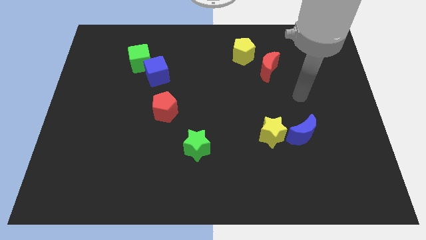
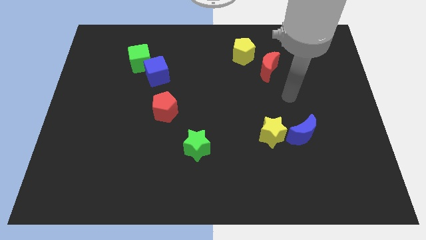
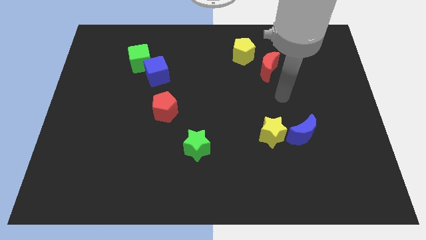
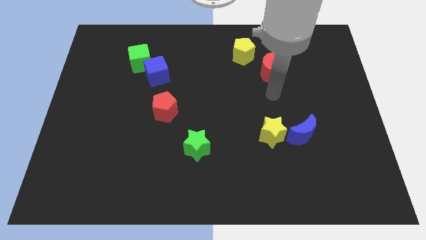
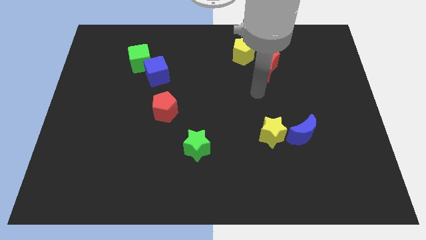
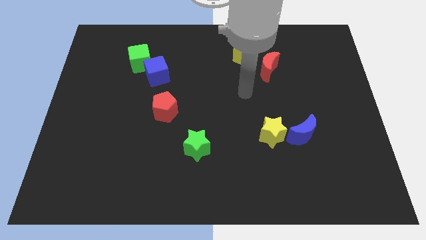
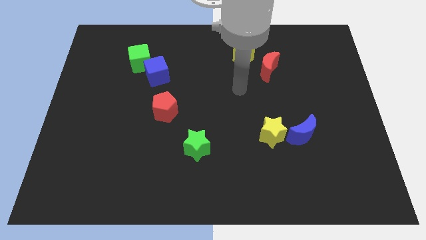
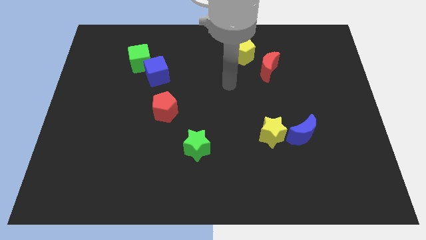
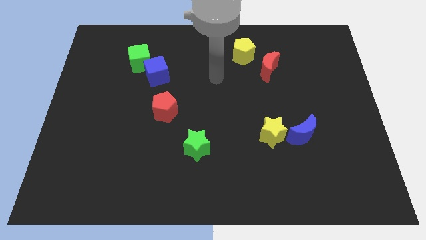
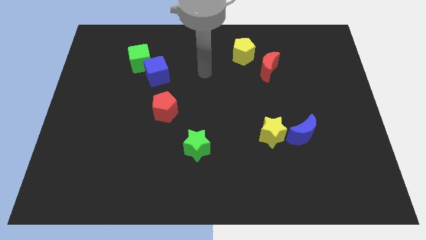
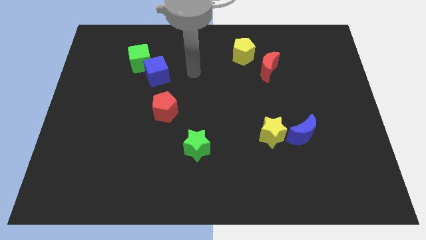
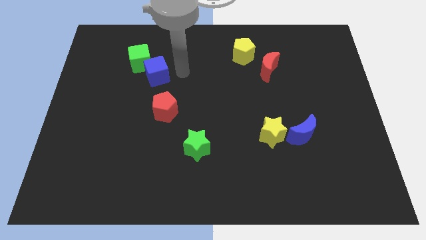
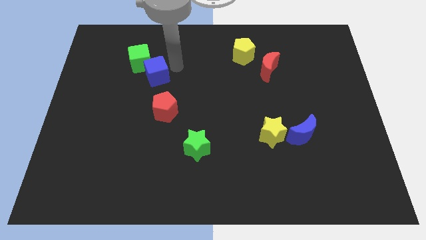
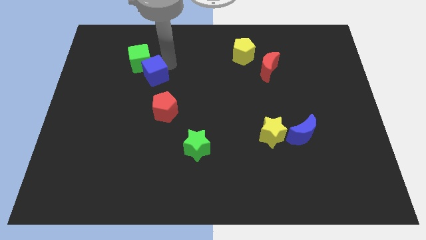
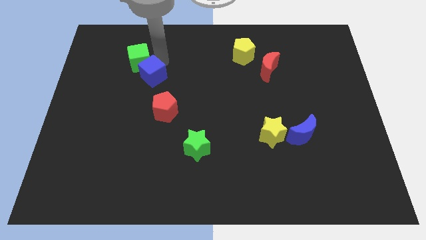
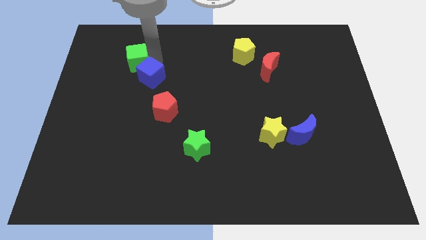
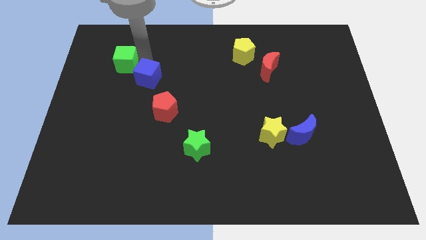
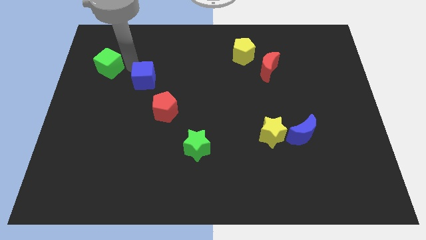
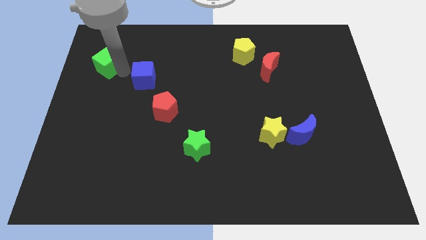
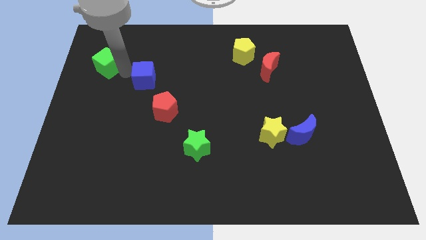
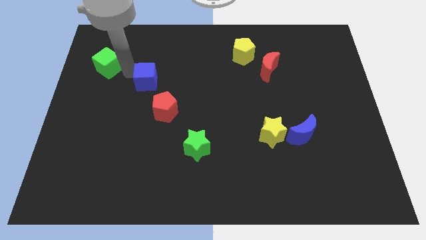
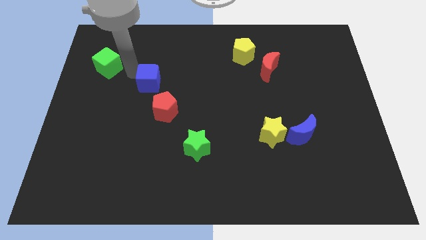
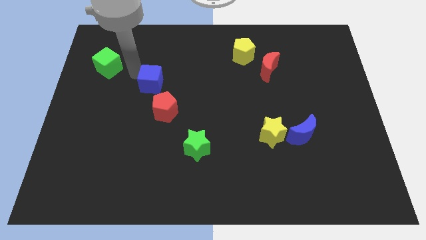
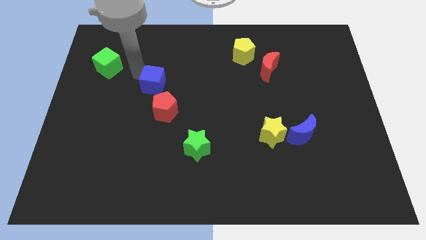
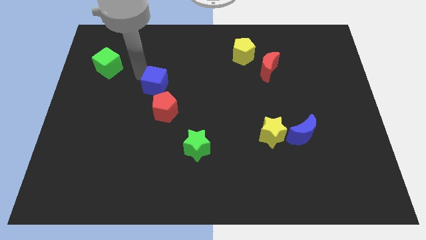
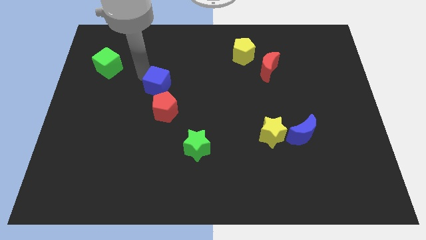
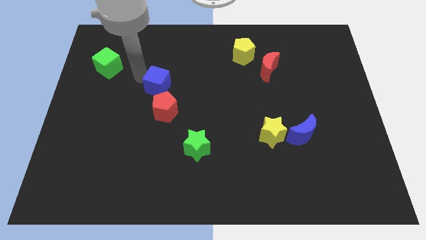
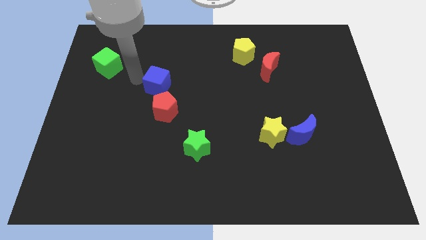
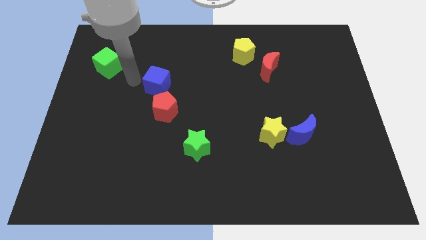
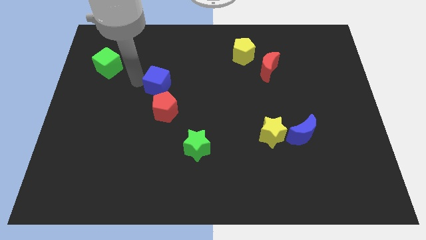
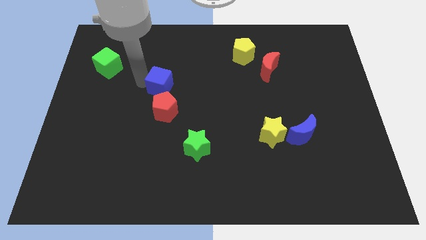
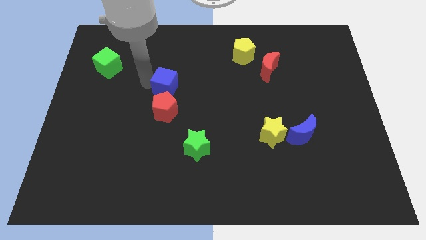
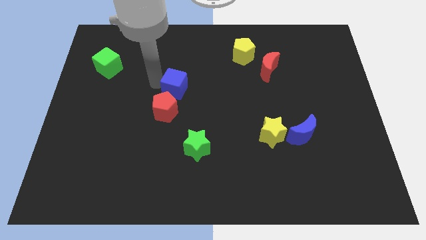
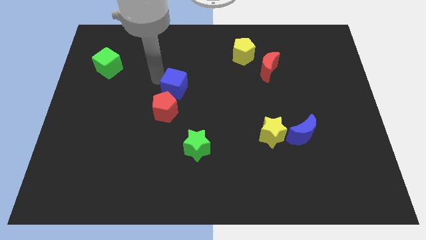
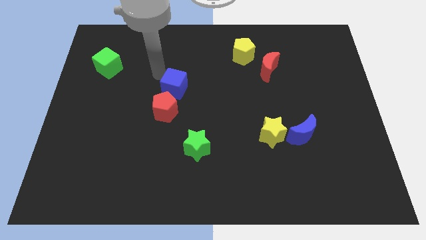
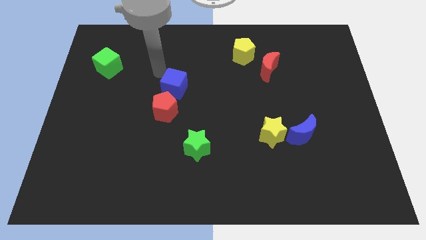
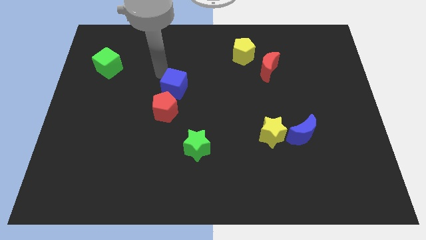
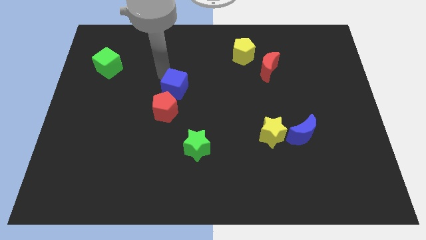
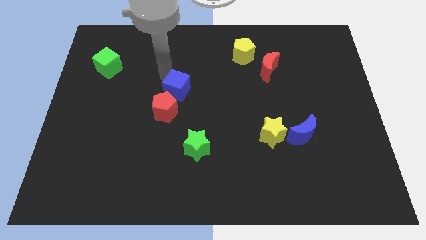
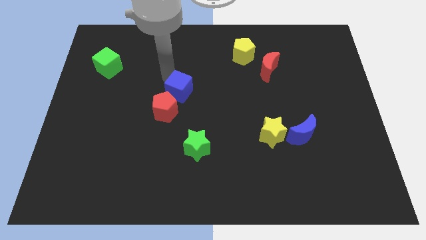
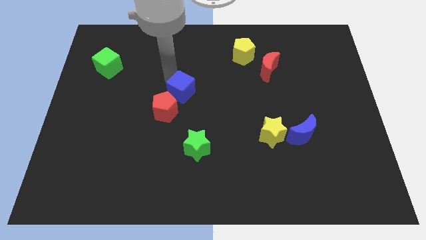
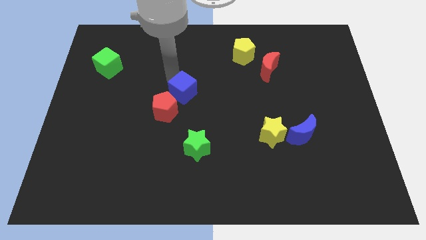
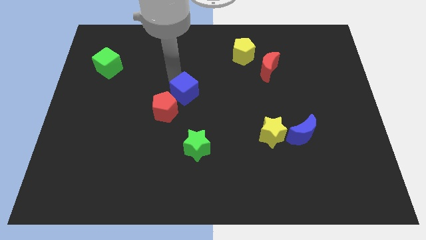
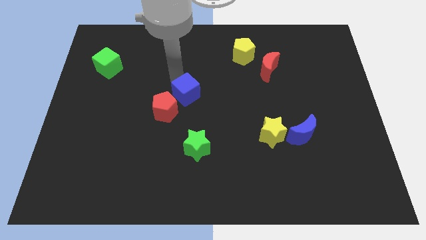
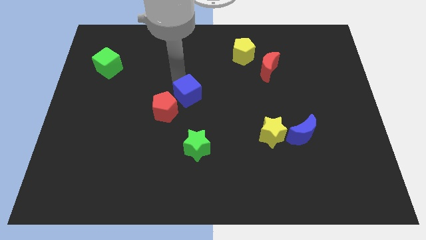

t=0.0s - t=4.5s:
put the blue cube to the right of the red pentagon

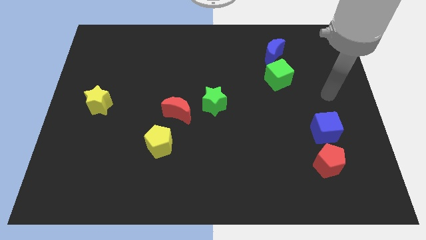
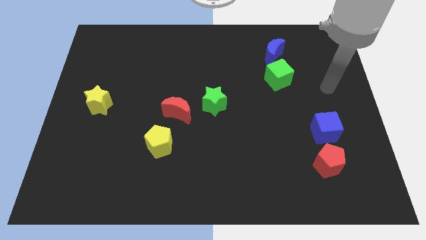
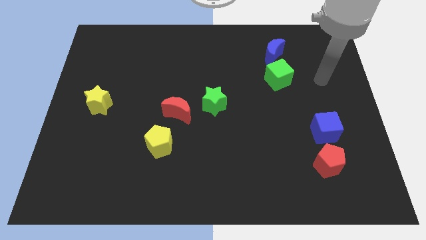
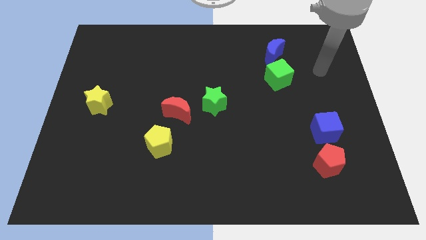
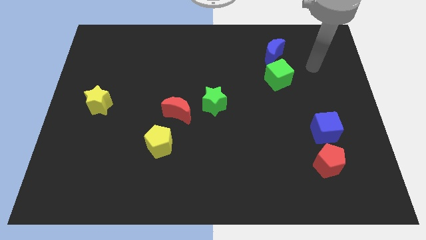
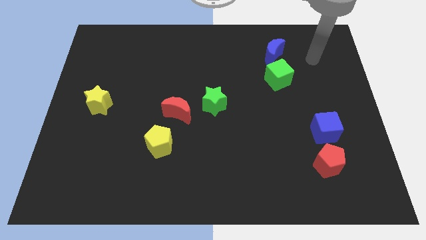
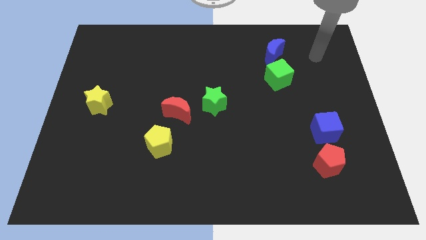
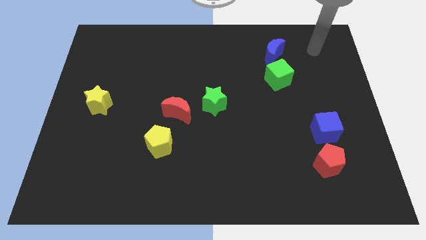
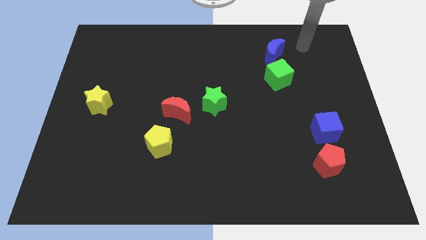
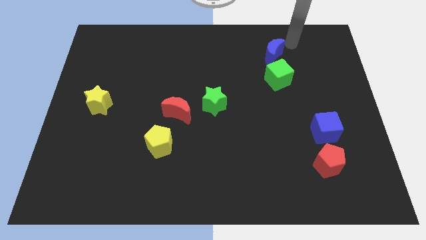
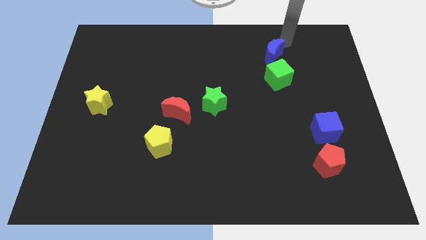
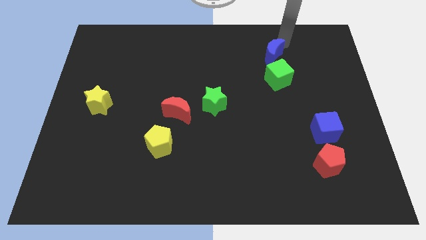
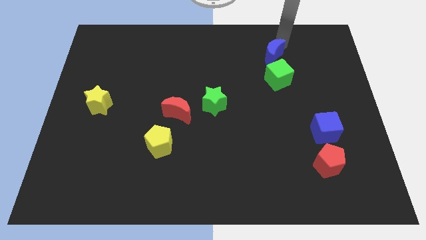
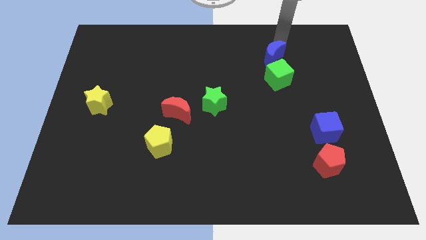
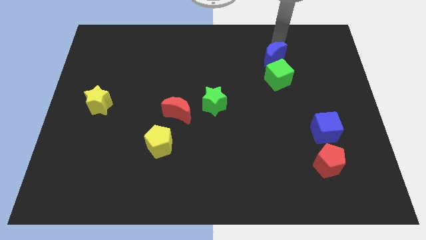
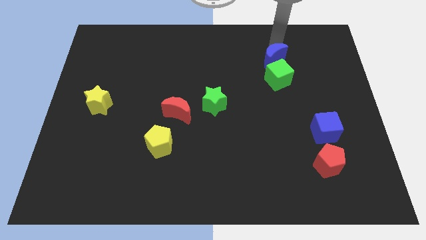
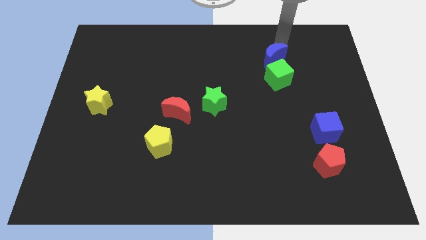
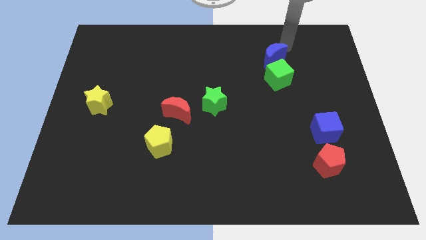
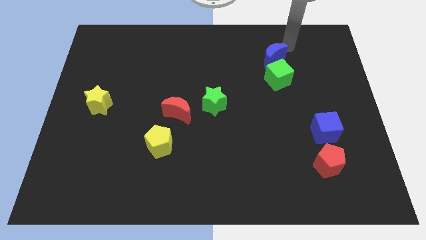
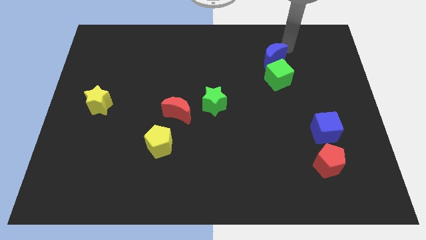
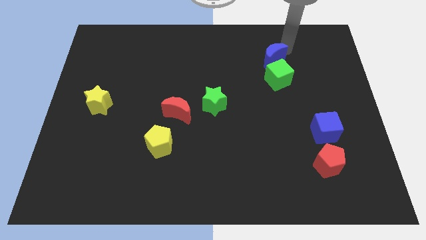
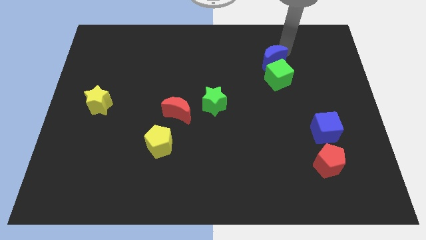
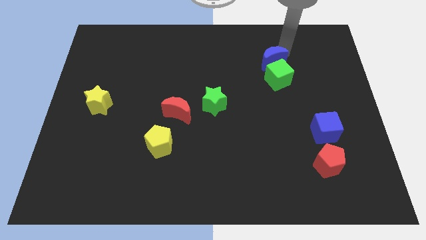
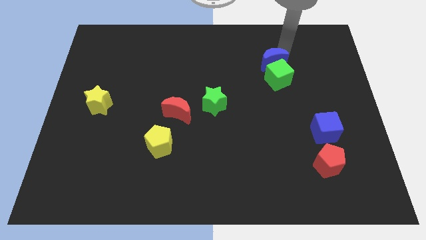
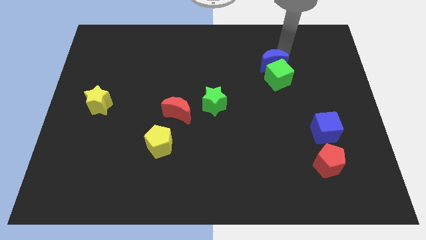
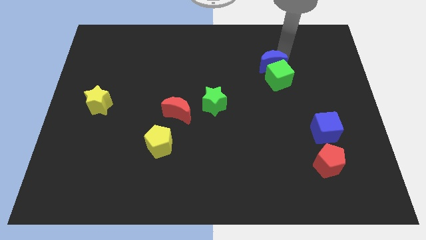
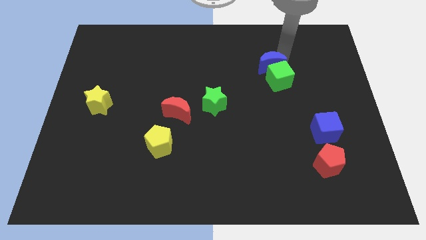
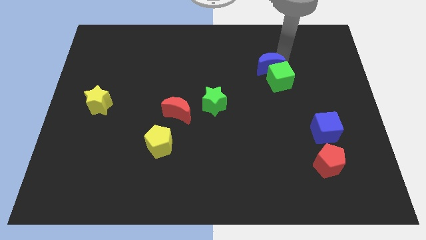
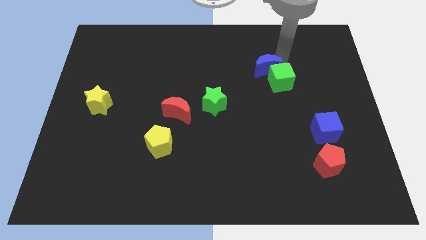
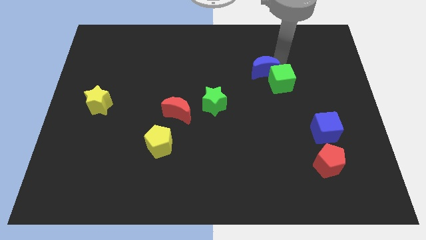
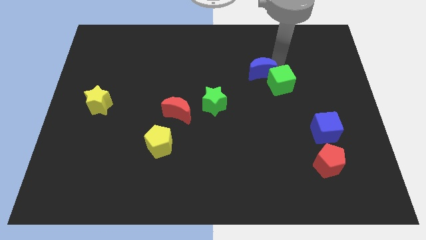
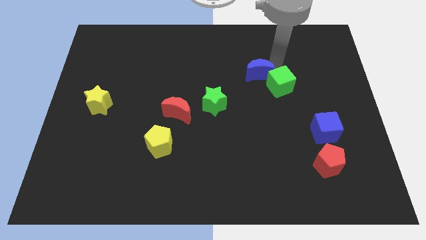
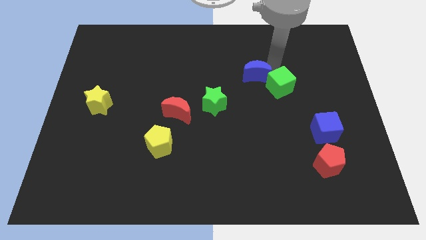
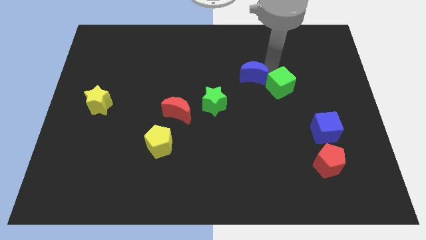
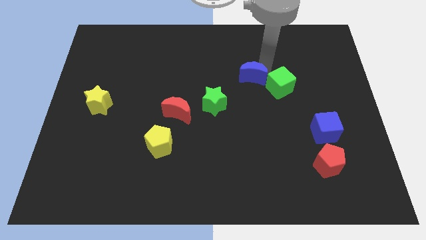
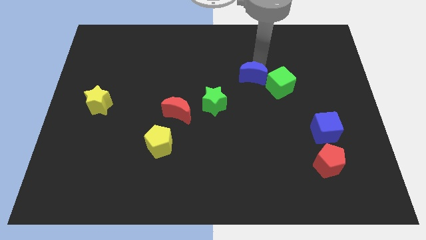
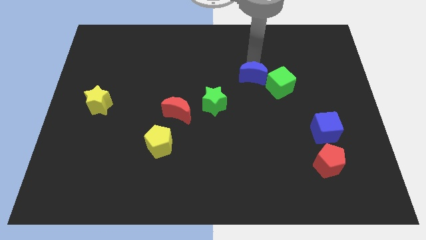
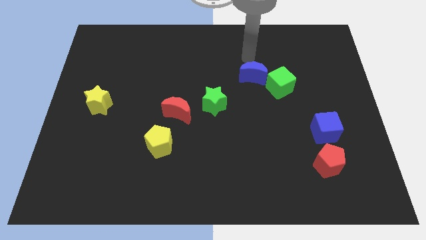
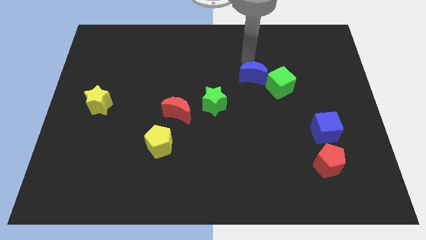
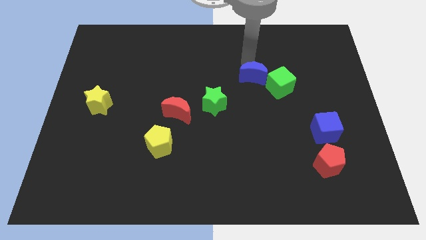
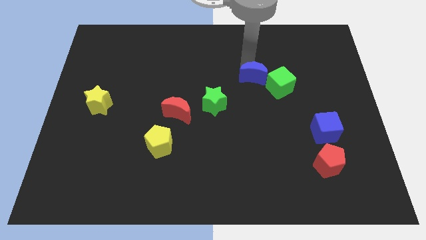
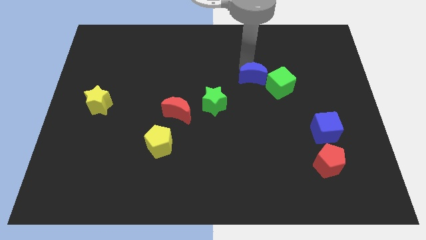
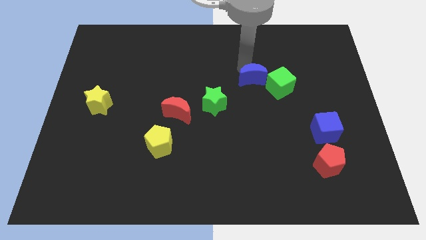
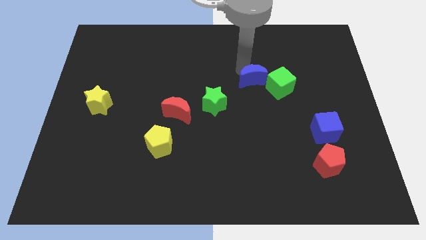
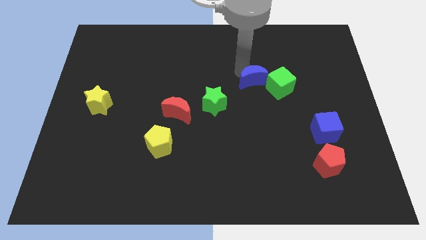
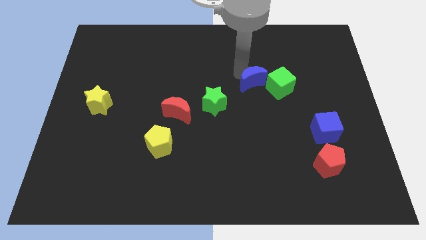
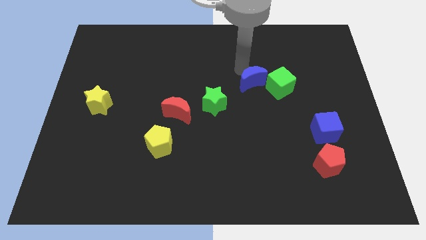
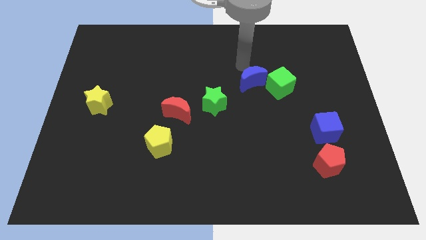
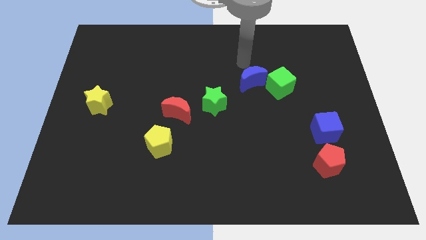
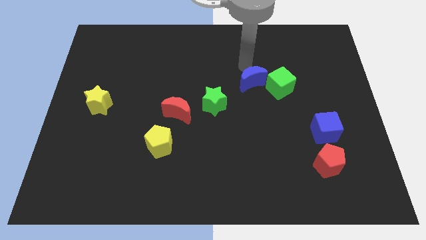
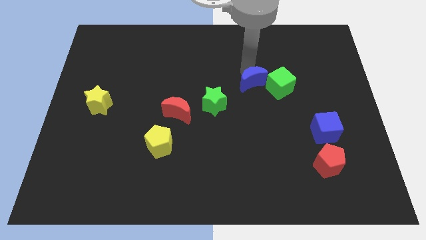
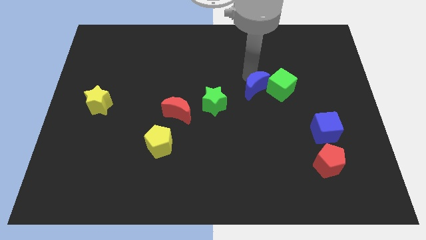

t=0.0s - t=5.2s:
slide the blue moon to the bottom left of the green cube
